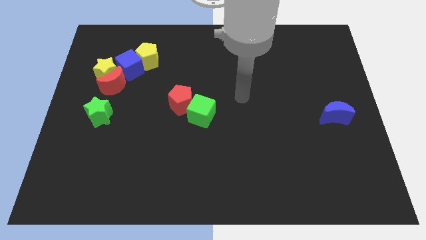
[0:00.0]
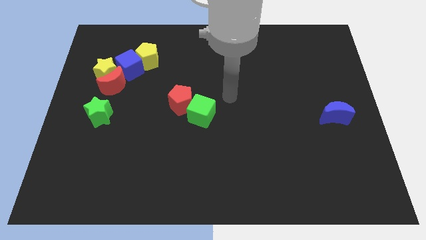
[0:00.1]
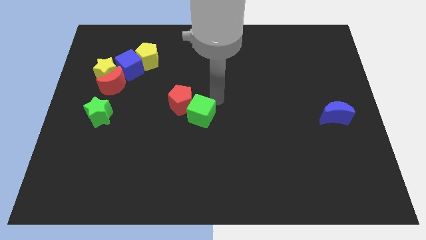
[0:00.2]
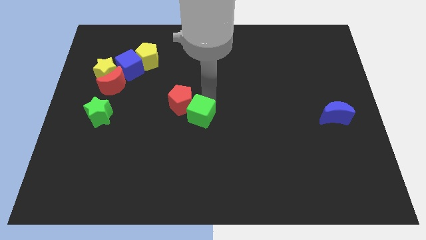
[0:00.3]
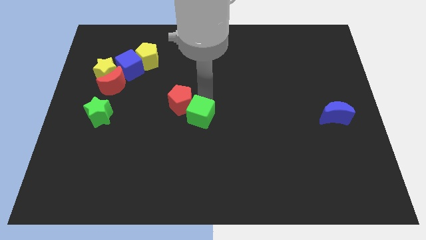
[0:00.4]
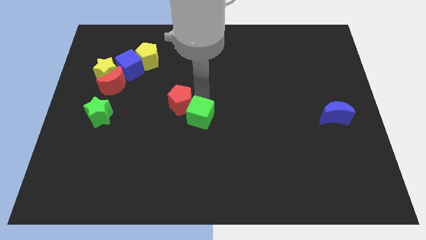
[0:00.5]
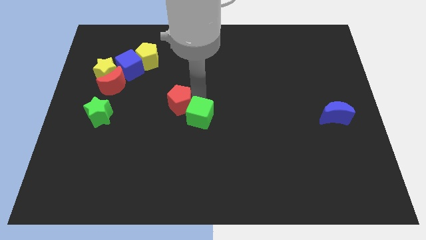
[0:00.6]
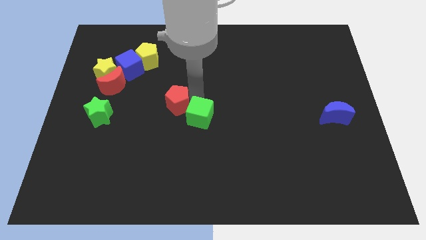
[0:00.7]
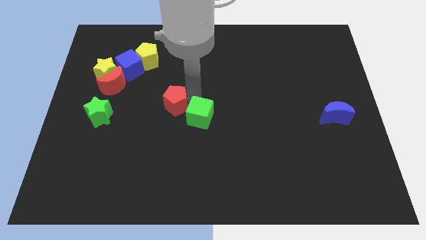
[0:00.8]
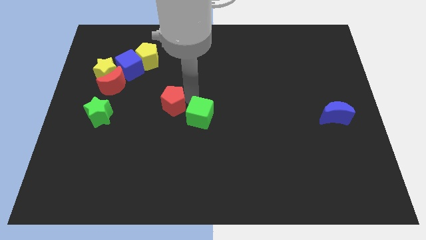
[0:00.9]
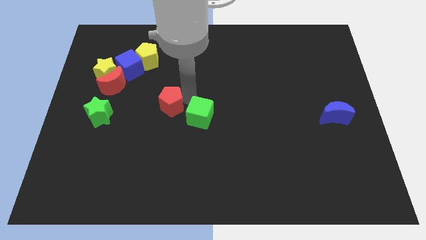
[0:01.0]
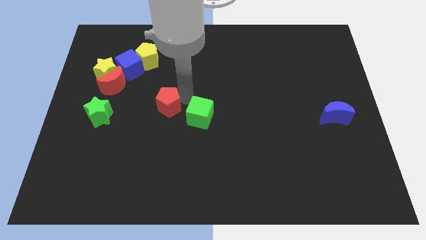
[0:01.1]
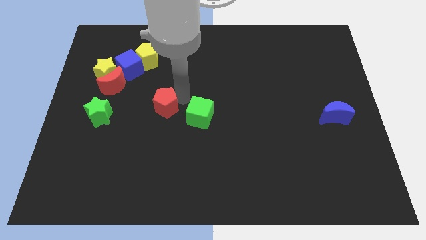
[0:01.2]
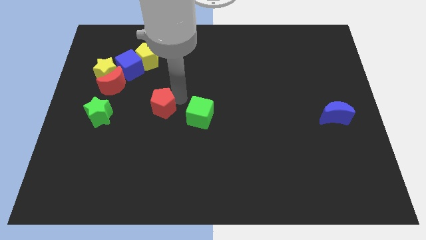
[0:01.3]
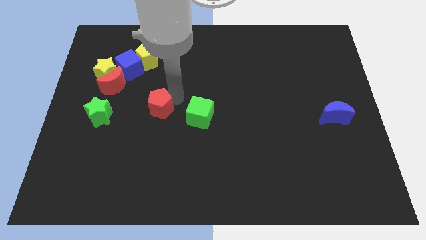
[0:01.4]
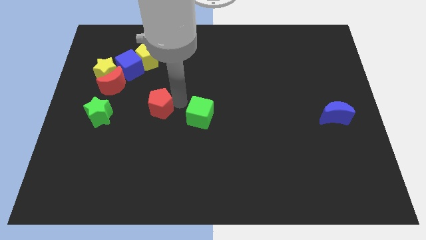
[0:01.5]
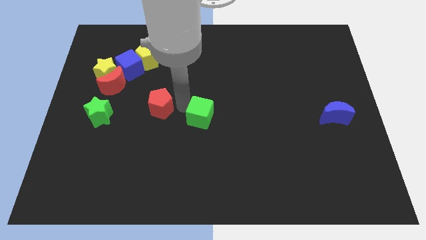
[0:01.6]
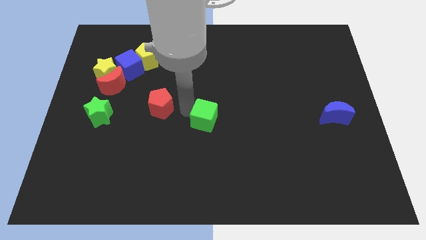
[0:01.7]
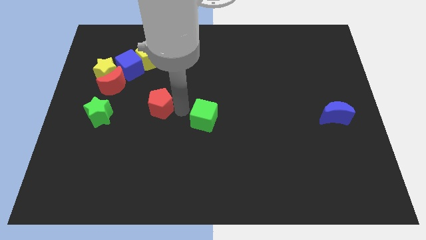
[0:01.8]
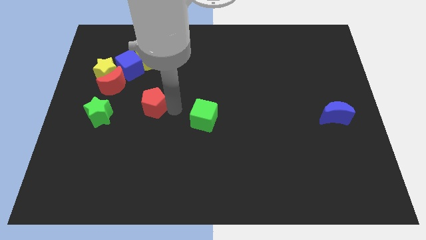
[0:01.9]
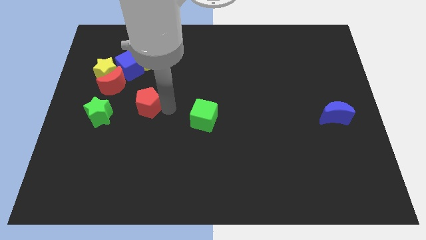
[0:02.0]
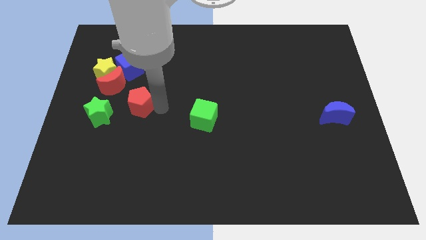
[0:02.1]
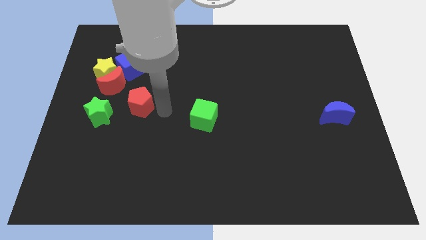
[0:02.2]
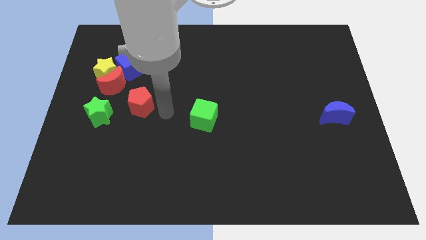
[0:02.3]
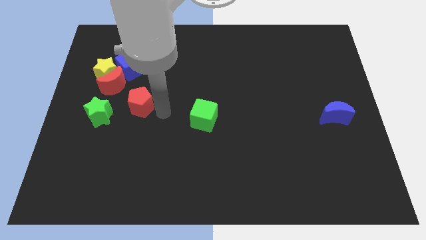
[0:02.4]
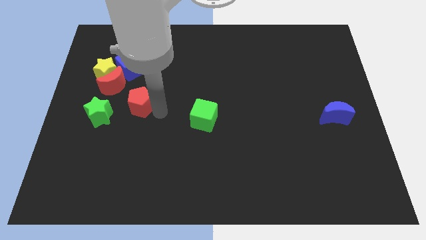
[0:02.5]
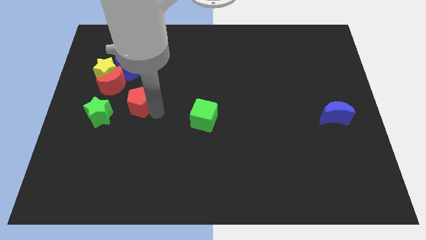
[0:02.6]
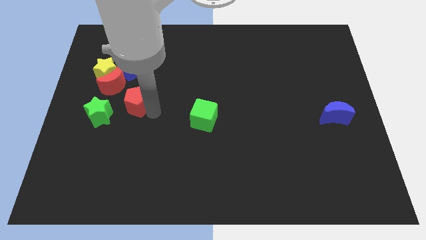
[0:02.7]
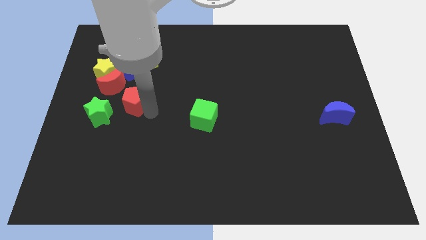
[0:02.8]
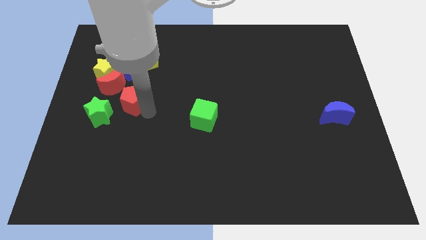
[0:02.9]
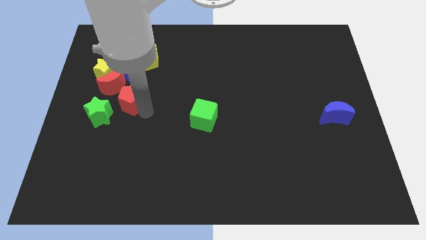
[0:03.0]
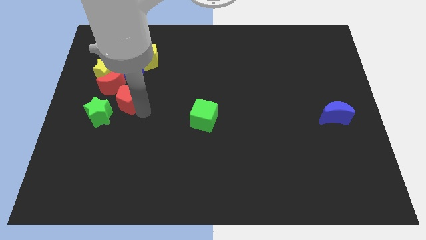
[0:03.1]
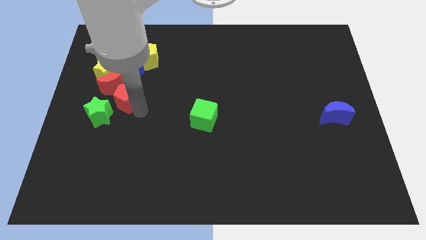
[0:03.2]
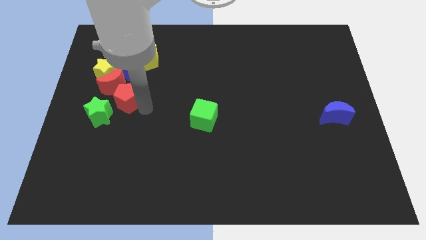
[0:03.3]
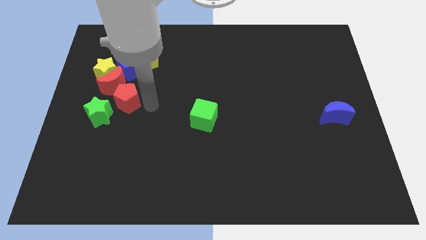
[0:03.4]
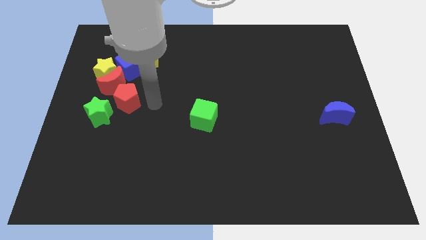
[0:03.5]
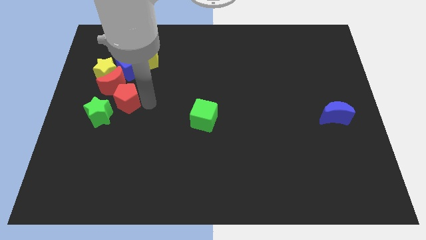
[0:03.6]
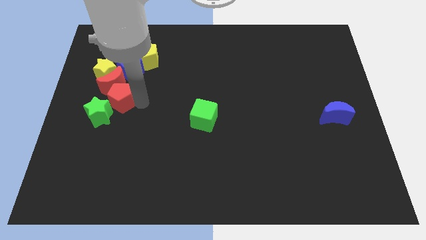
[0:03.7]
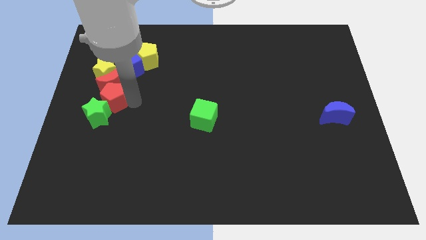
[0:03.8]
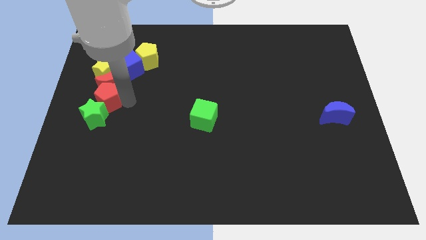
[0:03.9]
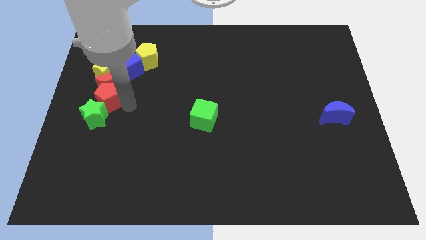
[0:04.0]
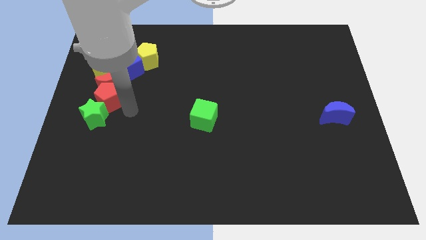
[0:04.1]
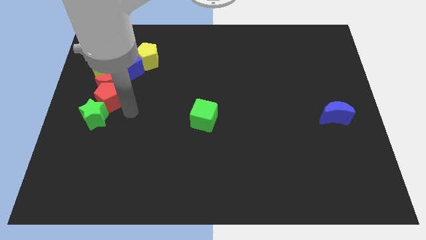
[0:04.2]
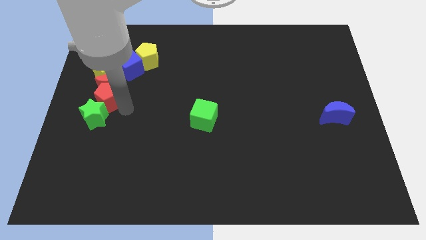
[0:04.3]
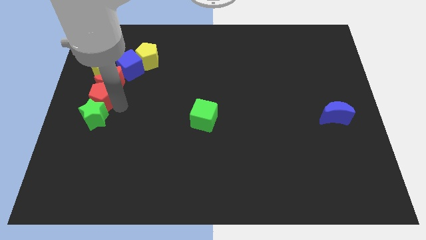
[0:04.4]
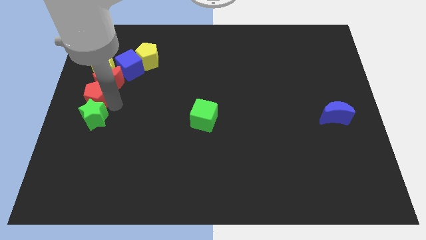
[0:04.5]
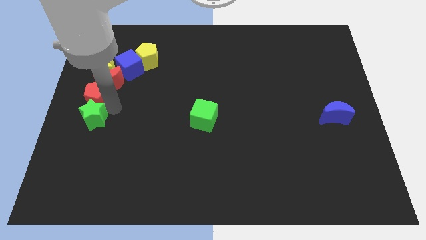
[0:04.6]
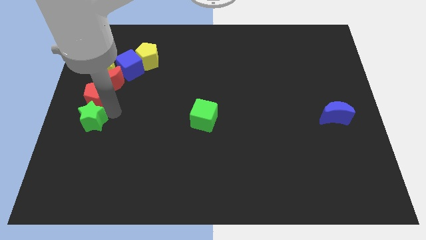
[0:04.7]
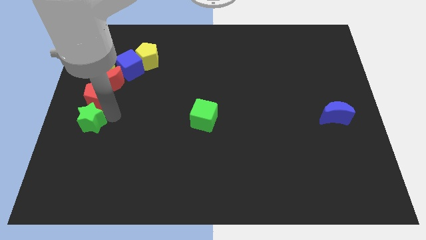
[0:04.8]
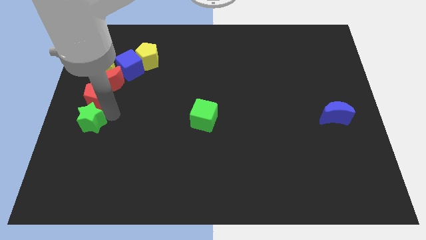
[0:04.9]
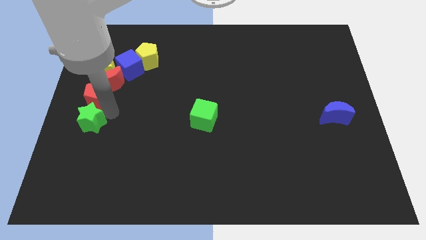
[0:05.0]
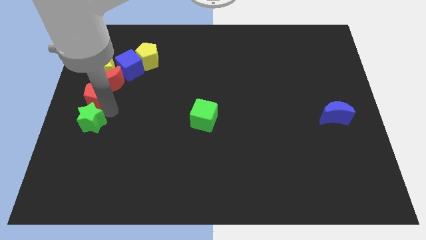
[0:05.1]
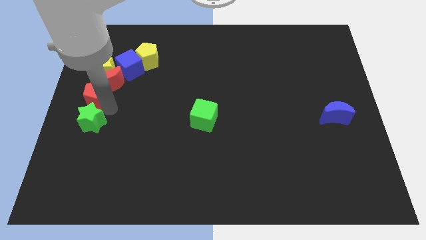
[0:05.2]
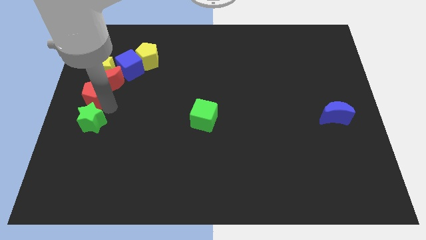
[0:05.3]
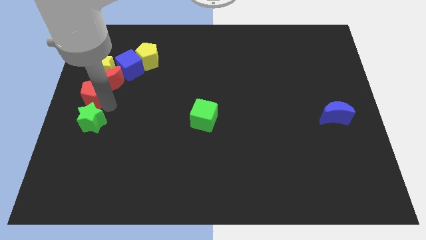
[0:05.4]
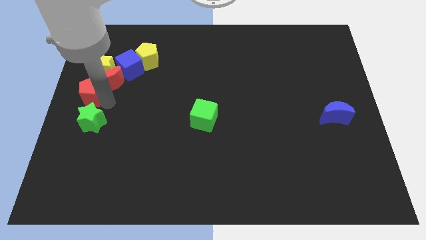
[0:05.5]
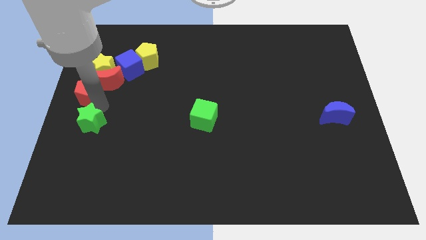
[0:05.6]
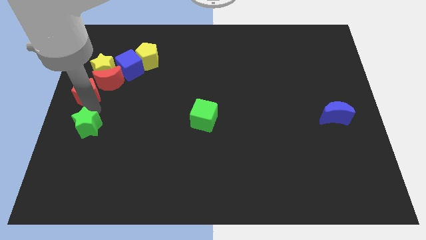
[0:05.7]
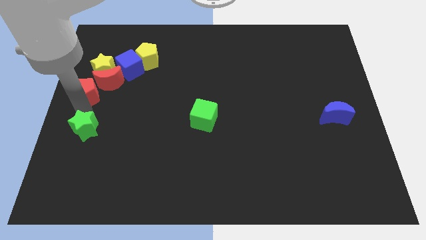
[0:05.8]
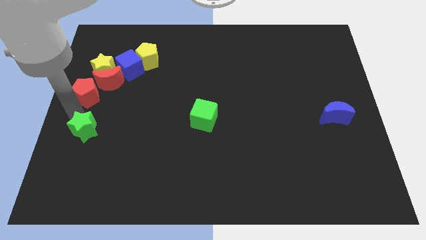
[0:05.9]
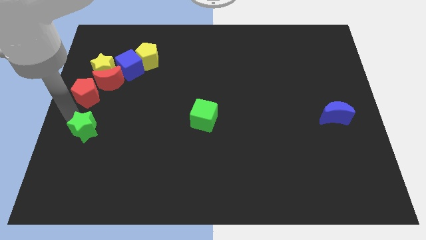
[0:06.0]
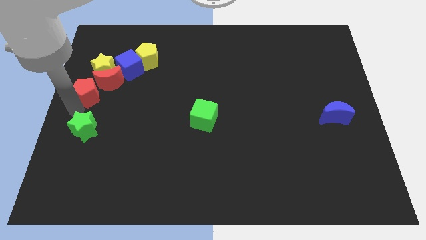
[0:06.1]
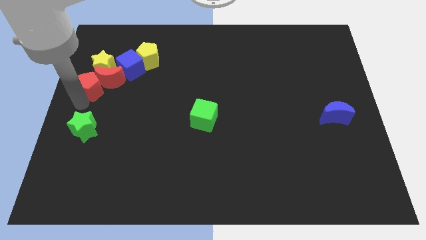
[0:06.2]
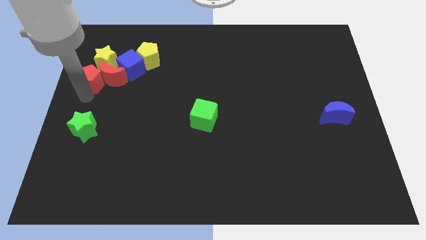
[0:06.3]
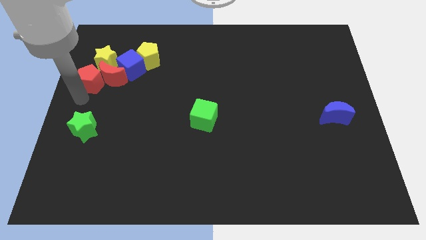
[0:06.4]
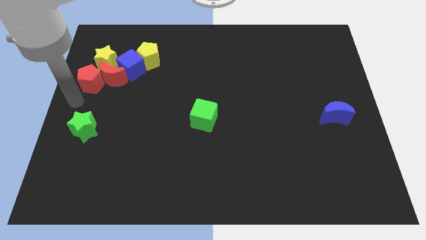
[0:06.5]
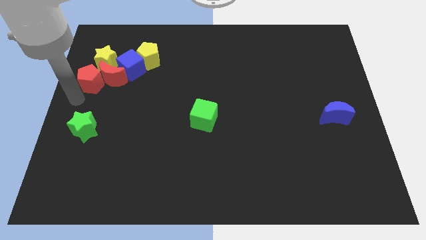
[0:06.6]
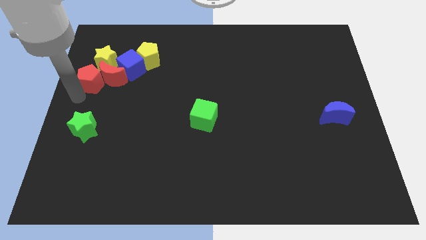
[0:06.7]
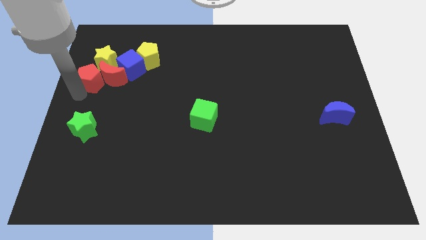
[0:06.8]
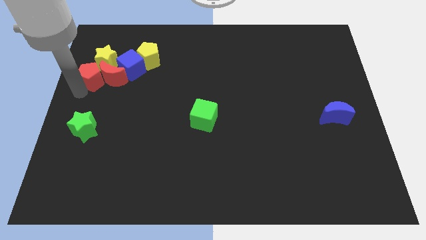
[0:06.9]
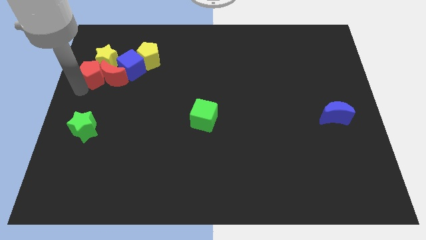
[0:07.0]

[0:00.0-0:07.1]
put the red pentagon next to the yellow star

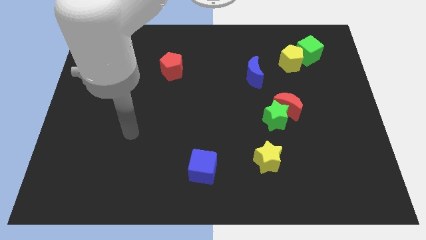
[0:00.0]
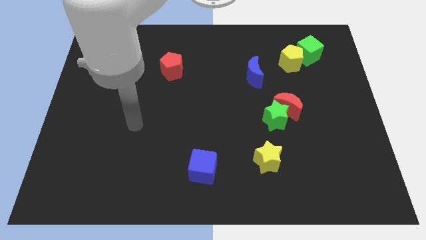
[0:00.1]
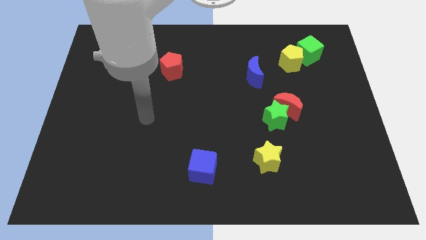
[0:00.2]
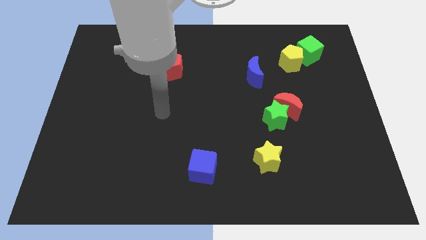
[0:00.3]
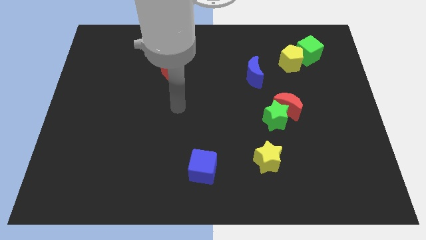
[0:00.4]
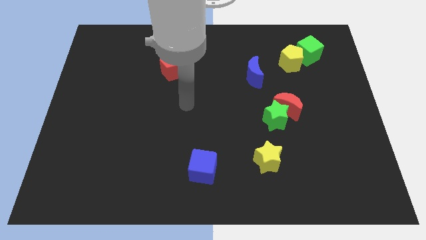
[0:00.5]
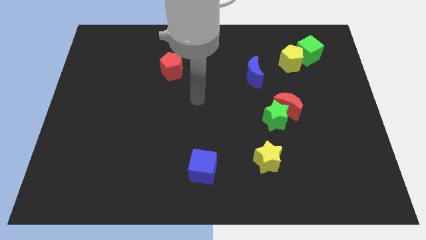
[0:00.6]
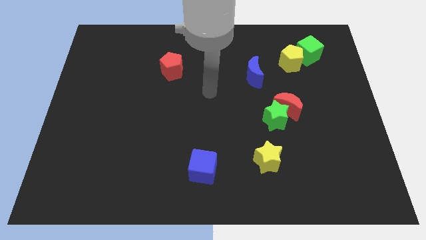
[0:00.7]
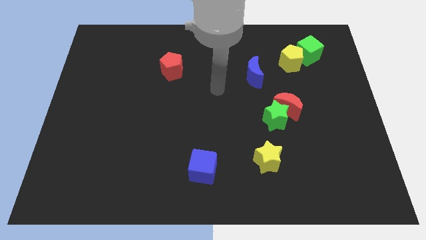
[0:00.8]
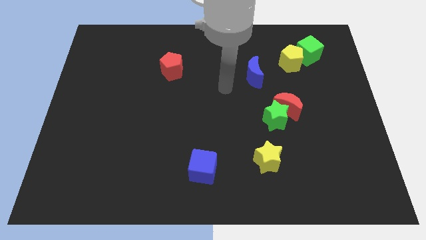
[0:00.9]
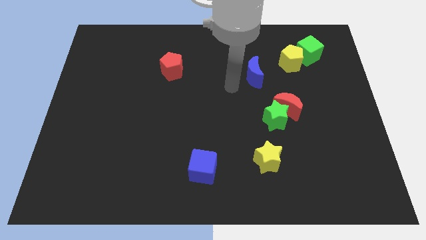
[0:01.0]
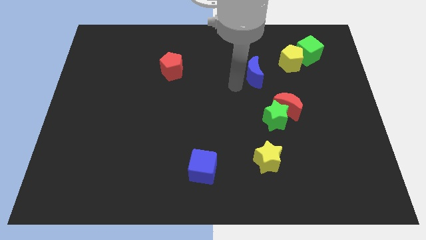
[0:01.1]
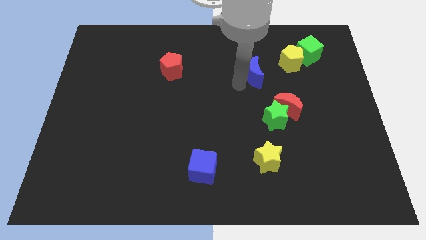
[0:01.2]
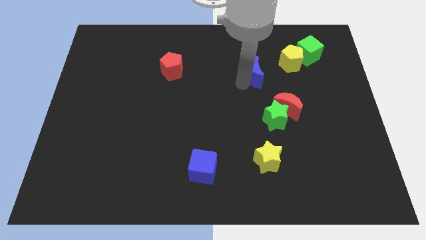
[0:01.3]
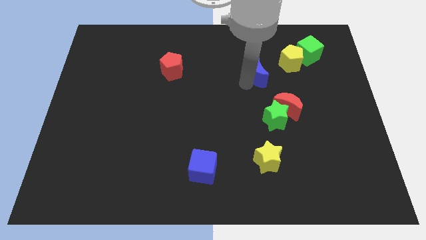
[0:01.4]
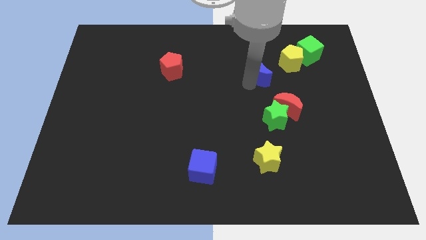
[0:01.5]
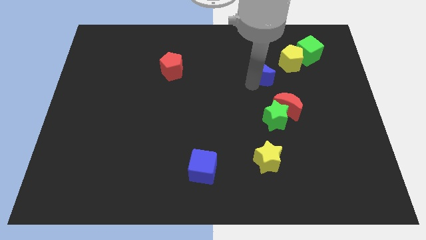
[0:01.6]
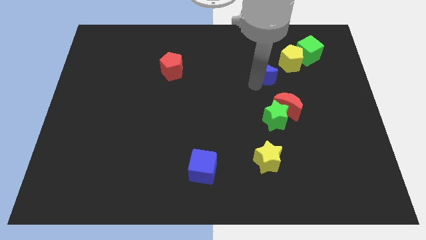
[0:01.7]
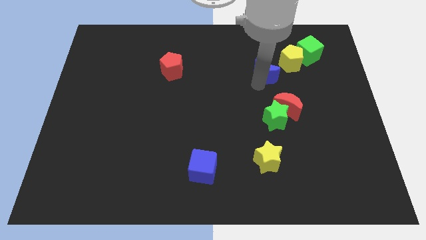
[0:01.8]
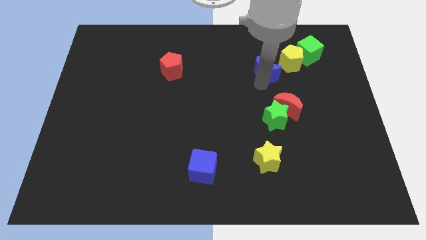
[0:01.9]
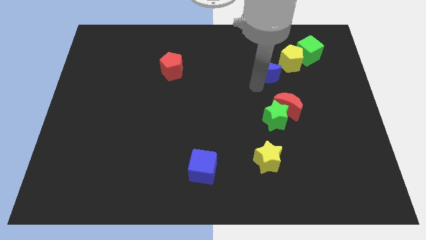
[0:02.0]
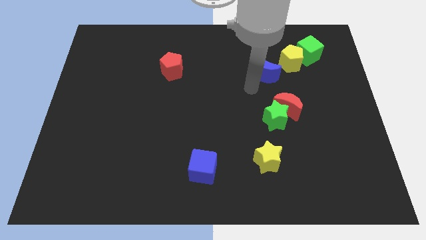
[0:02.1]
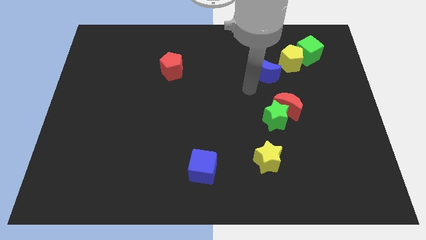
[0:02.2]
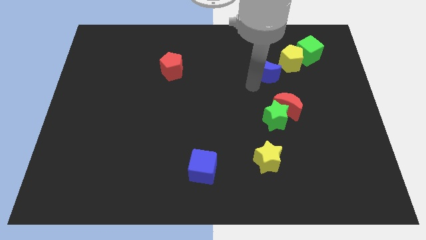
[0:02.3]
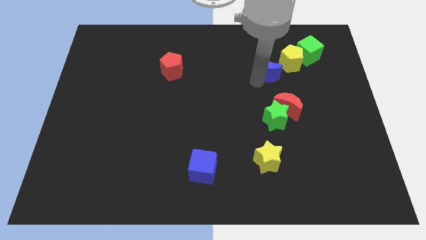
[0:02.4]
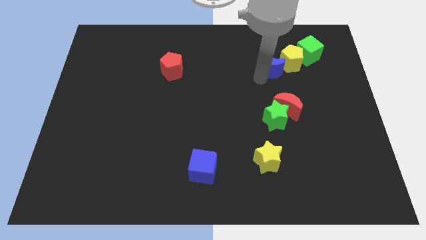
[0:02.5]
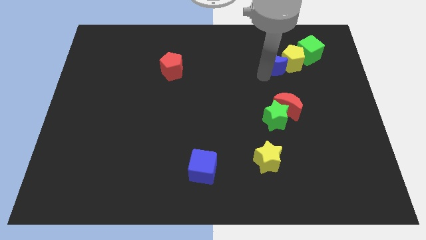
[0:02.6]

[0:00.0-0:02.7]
put the blue moon next to the yellow pentagon
